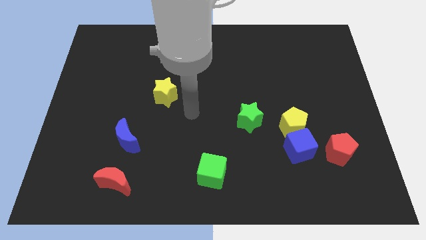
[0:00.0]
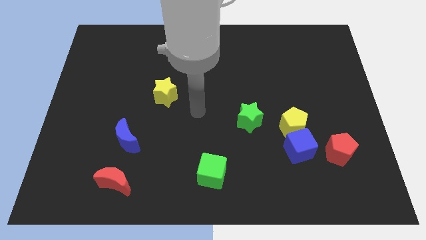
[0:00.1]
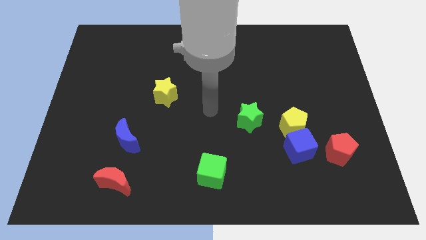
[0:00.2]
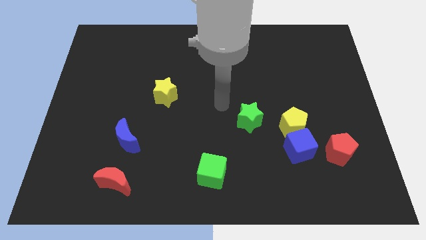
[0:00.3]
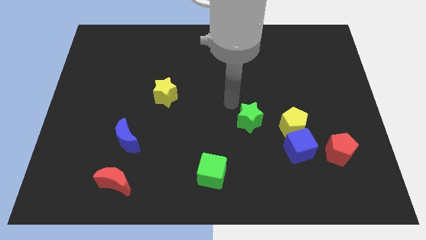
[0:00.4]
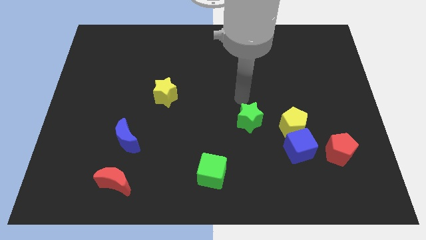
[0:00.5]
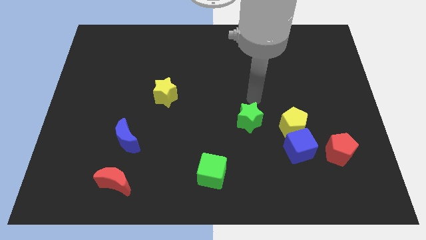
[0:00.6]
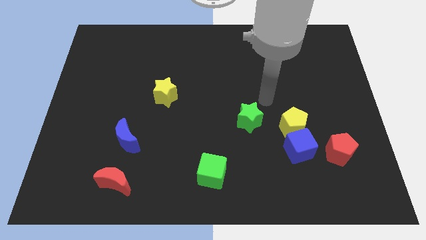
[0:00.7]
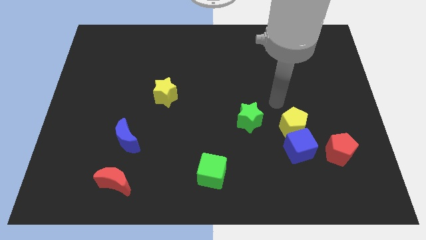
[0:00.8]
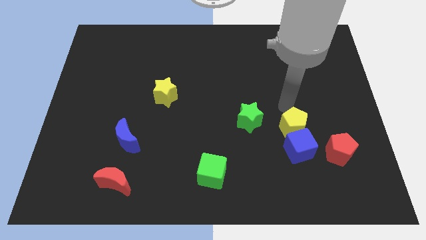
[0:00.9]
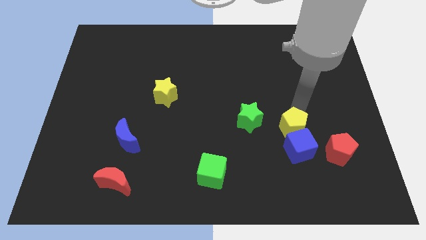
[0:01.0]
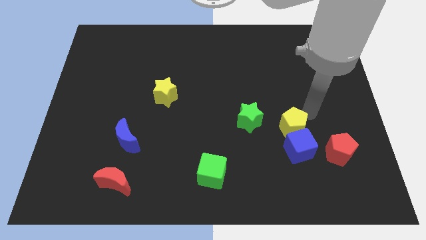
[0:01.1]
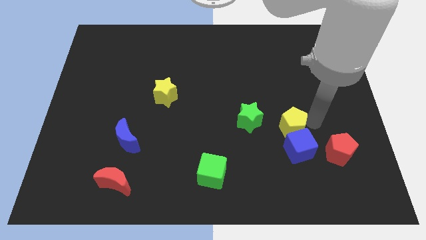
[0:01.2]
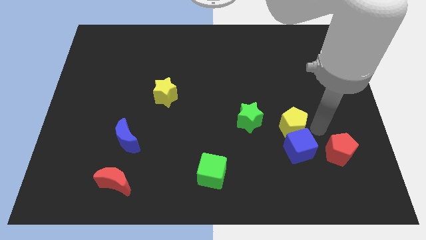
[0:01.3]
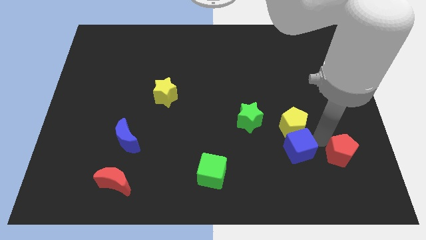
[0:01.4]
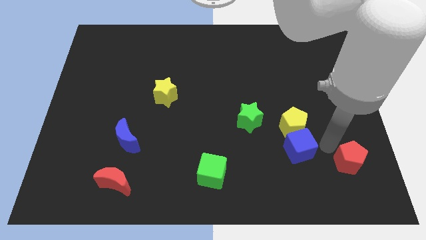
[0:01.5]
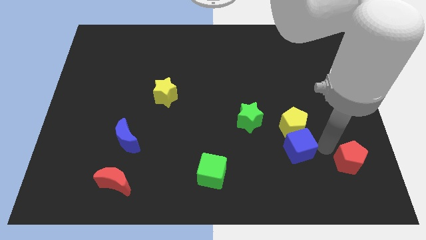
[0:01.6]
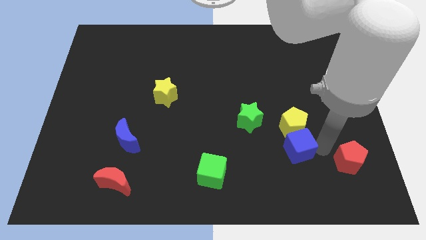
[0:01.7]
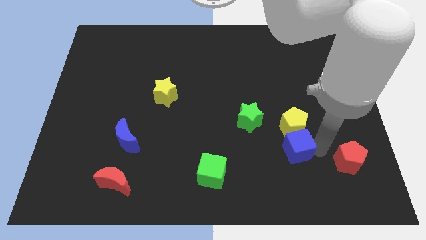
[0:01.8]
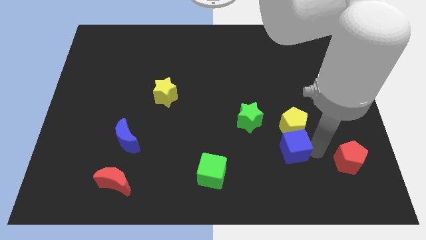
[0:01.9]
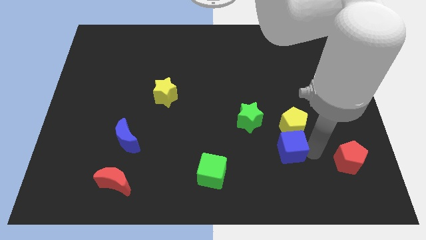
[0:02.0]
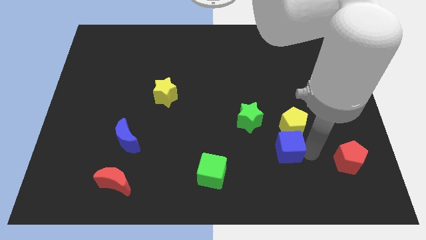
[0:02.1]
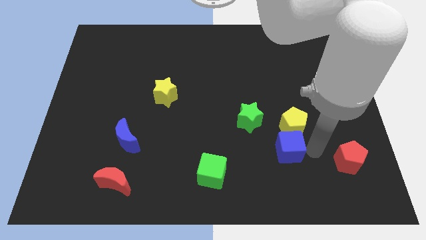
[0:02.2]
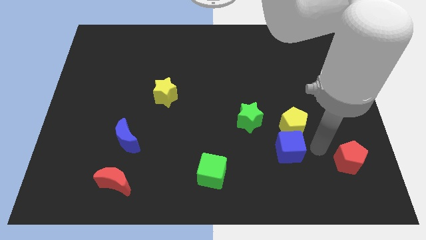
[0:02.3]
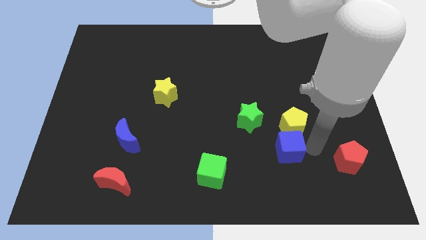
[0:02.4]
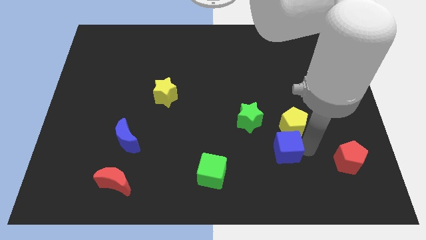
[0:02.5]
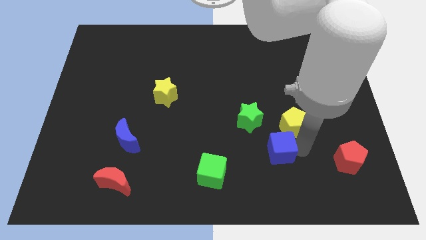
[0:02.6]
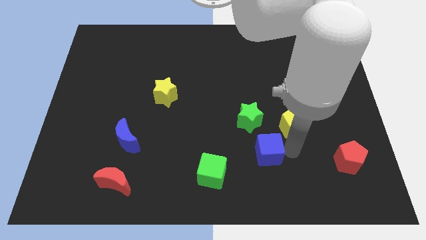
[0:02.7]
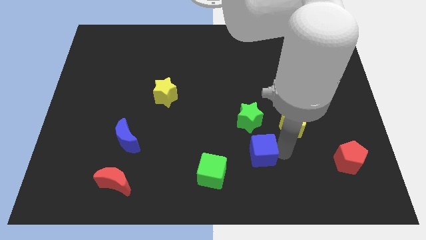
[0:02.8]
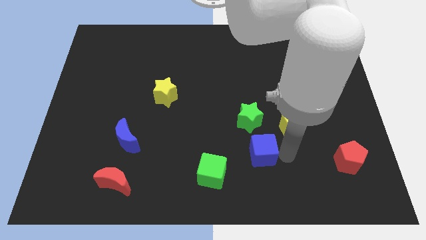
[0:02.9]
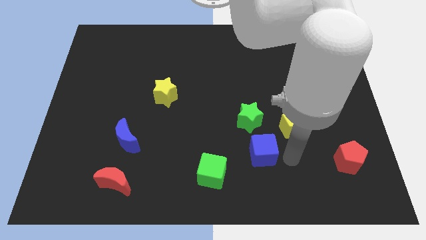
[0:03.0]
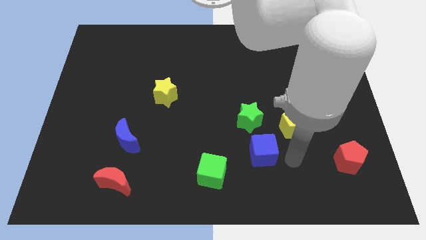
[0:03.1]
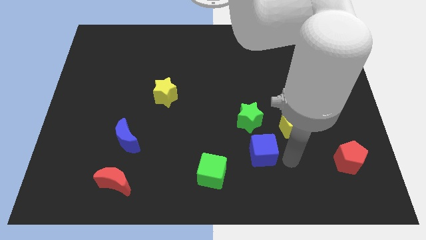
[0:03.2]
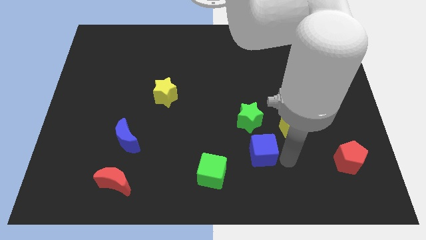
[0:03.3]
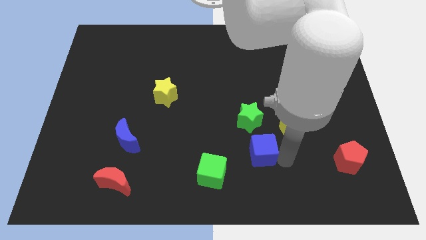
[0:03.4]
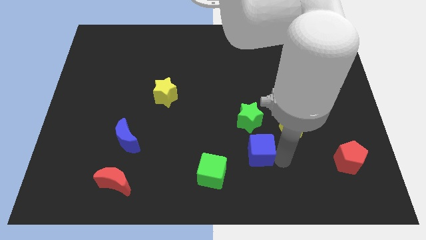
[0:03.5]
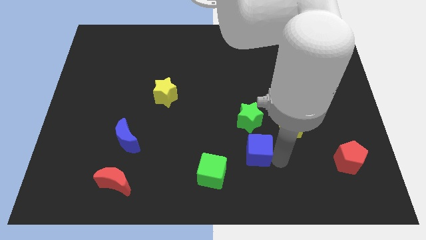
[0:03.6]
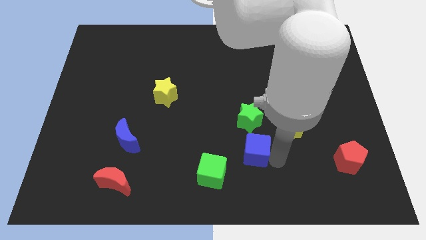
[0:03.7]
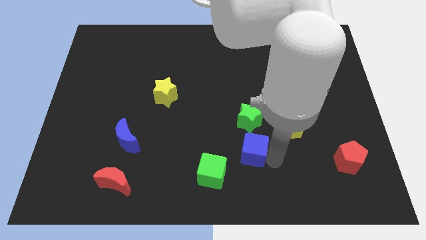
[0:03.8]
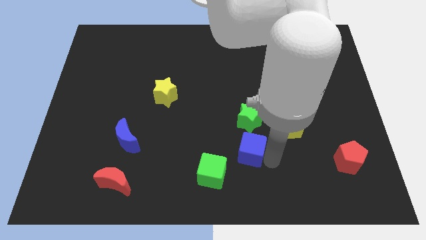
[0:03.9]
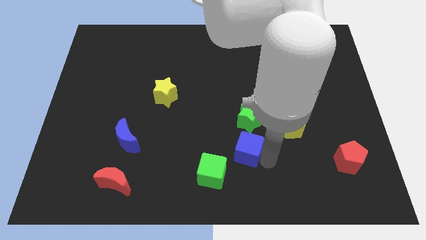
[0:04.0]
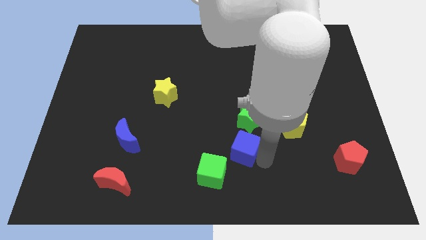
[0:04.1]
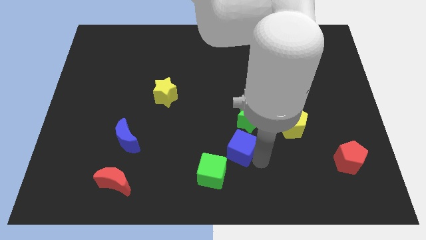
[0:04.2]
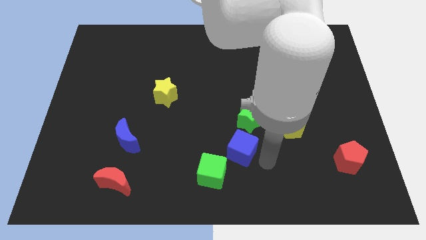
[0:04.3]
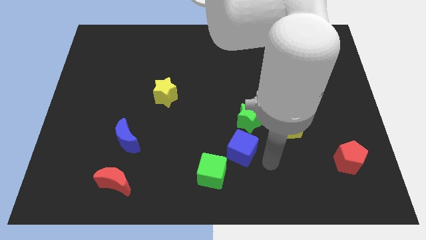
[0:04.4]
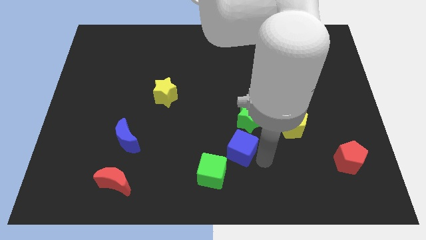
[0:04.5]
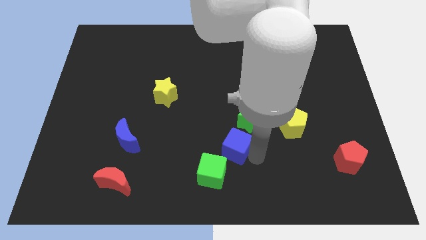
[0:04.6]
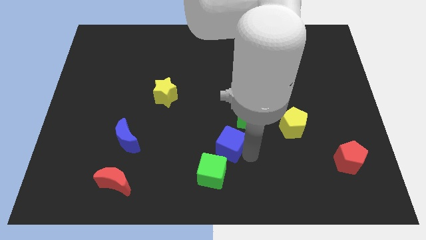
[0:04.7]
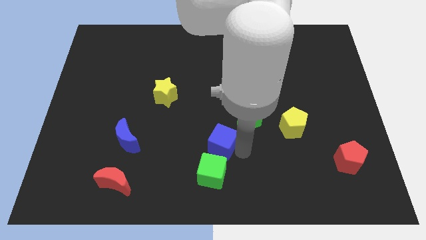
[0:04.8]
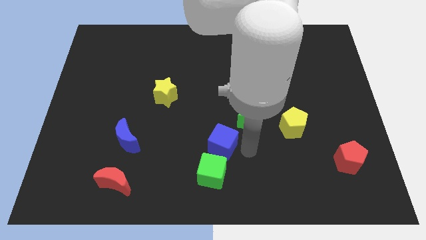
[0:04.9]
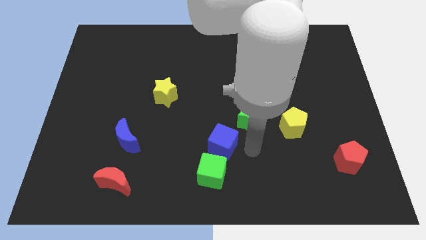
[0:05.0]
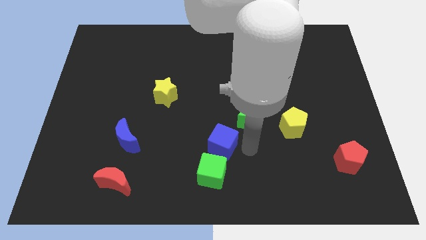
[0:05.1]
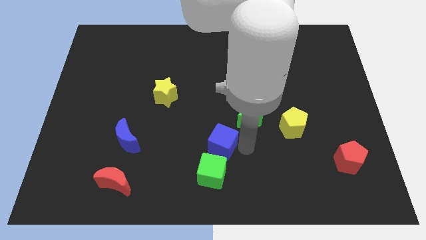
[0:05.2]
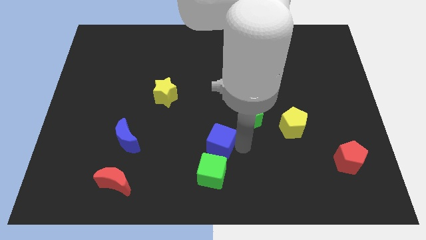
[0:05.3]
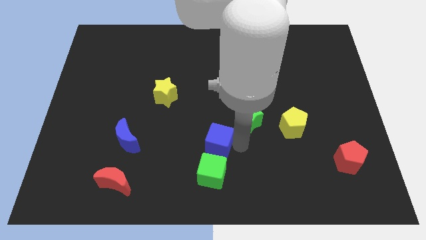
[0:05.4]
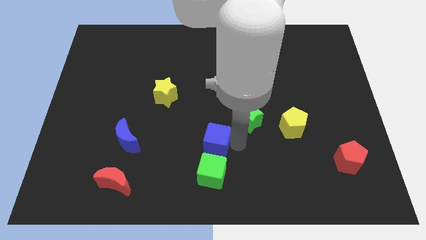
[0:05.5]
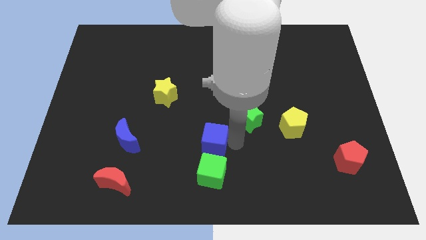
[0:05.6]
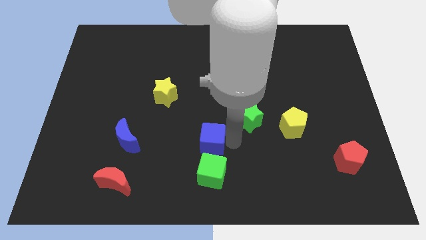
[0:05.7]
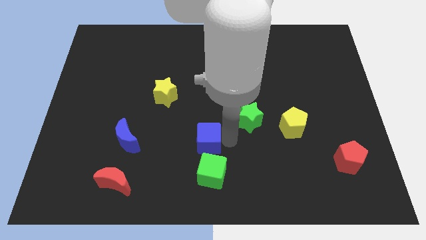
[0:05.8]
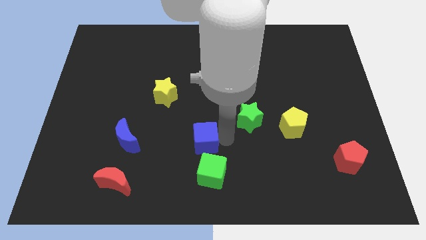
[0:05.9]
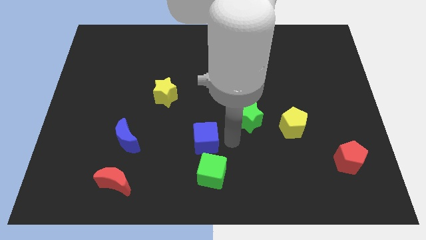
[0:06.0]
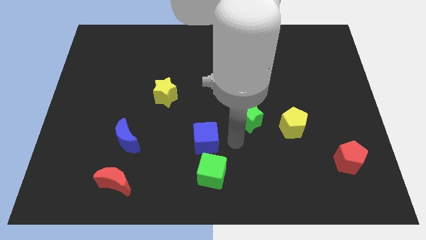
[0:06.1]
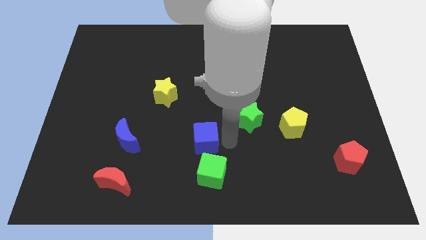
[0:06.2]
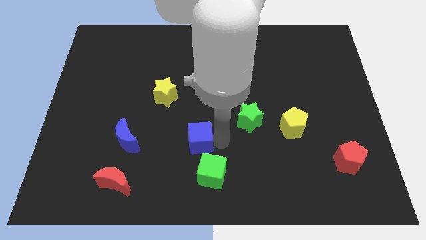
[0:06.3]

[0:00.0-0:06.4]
move the blue cube to the right of the blue moon

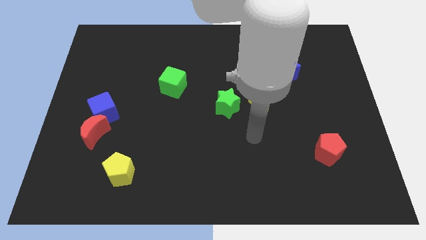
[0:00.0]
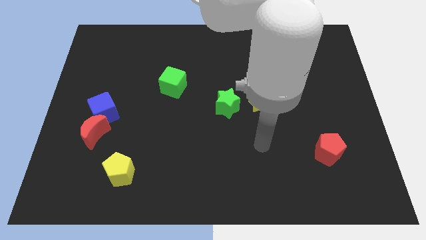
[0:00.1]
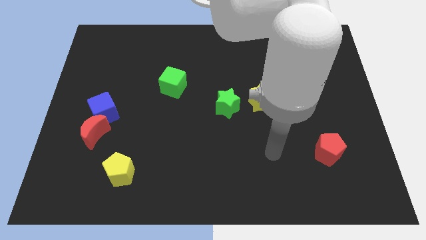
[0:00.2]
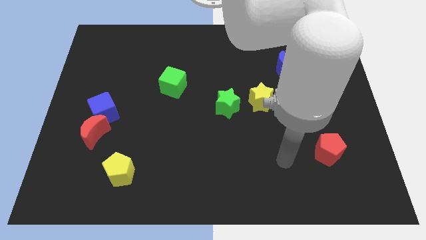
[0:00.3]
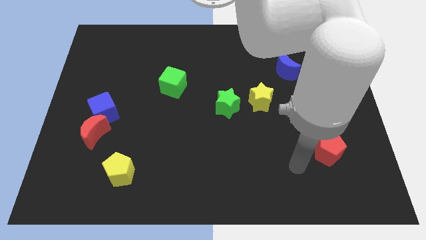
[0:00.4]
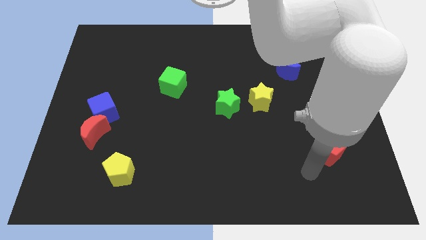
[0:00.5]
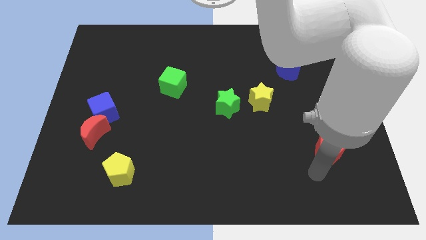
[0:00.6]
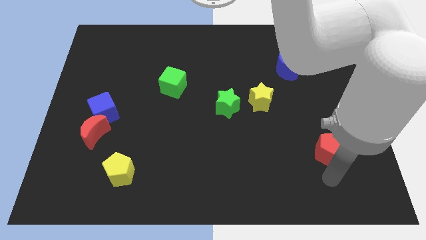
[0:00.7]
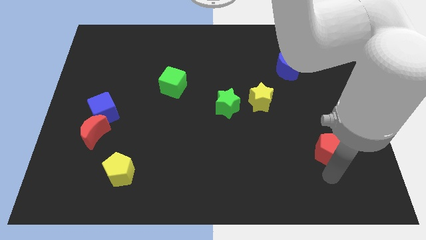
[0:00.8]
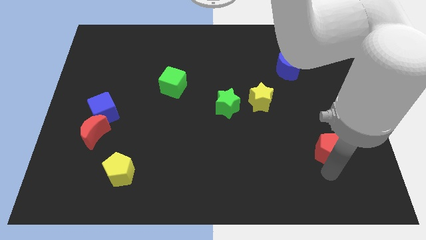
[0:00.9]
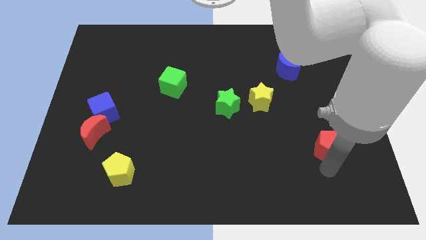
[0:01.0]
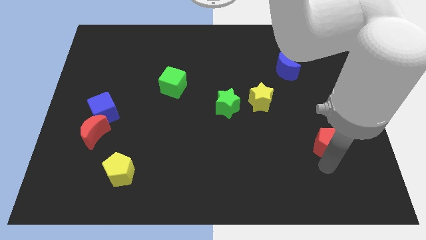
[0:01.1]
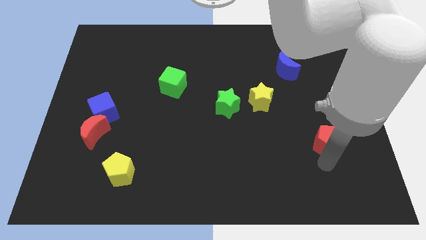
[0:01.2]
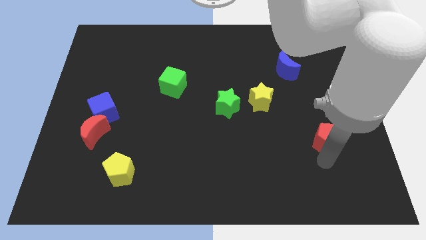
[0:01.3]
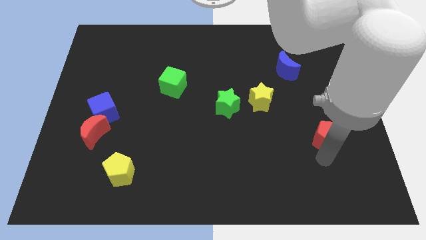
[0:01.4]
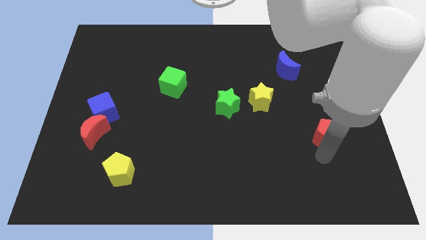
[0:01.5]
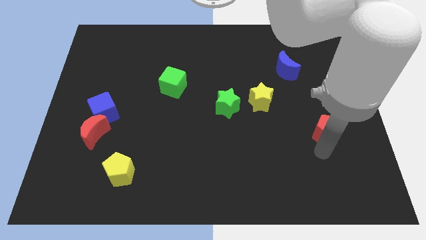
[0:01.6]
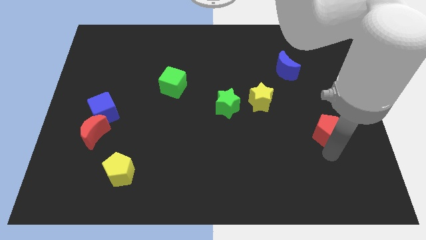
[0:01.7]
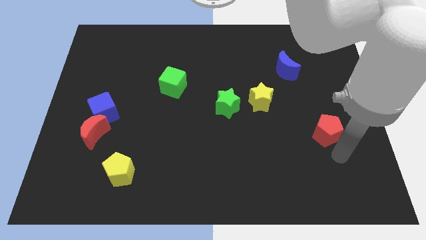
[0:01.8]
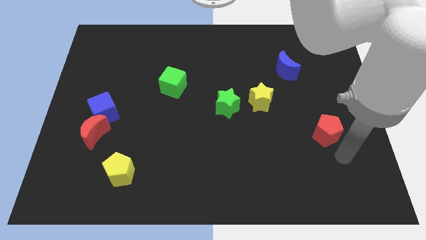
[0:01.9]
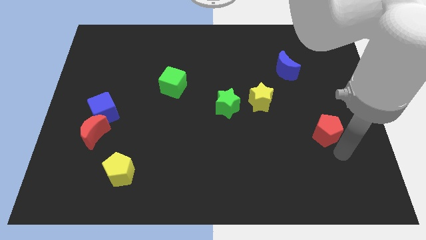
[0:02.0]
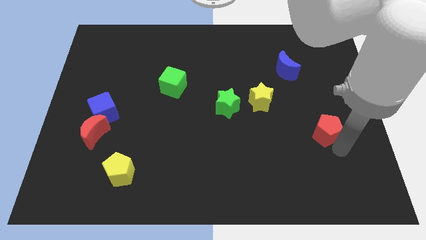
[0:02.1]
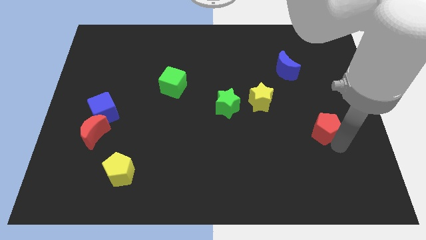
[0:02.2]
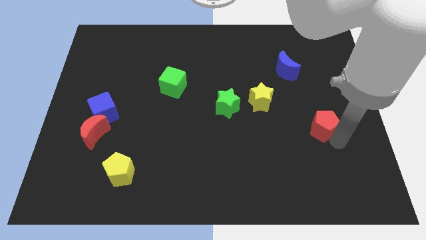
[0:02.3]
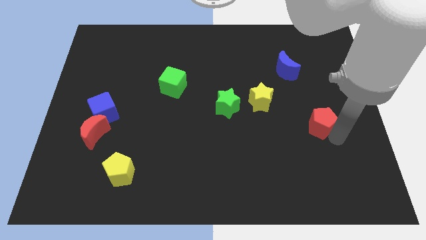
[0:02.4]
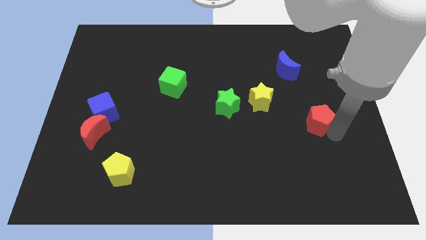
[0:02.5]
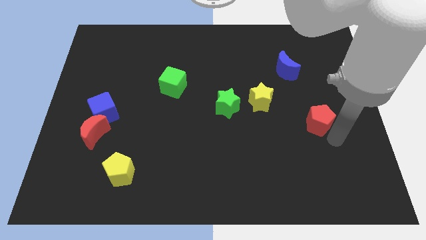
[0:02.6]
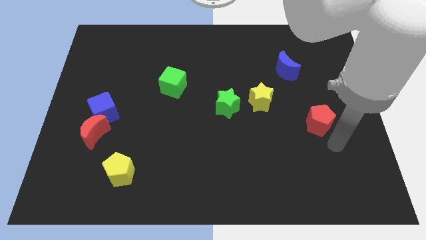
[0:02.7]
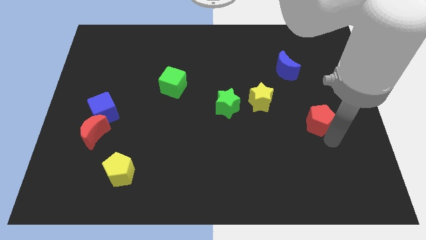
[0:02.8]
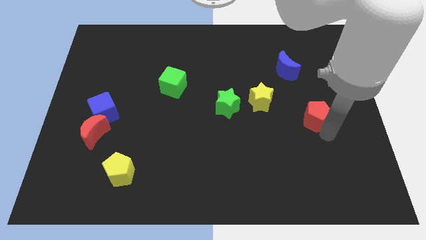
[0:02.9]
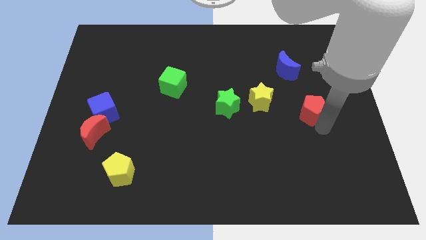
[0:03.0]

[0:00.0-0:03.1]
move the red pentagon right of the yellow star
